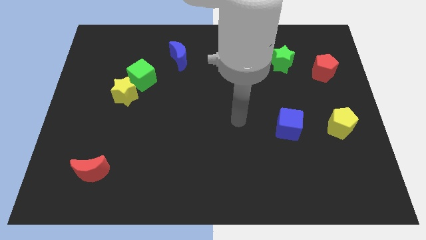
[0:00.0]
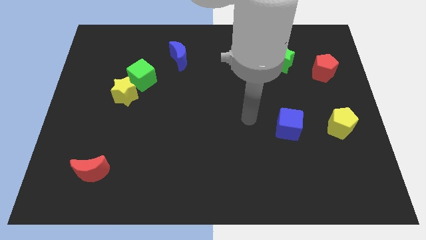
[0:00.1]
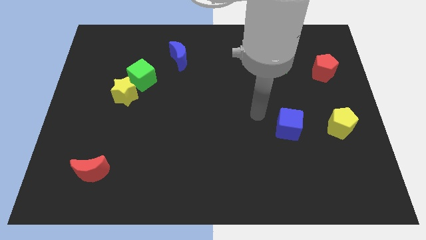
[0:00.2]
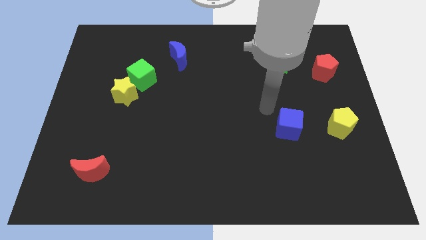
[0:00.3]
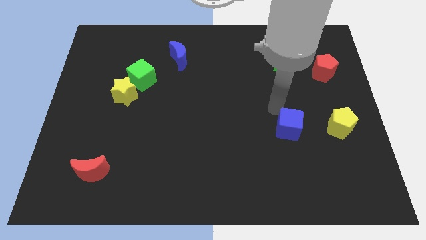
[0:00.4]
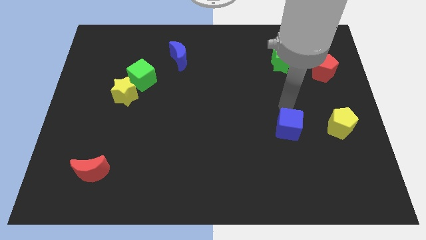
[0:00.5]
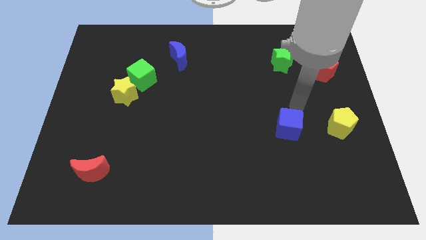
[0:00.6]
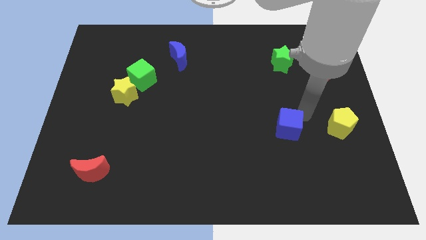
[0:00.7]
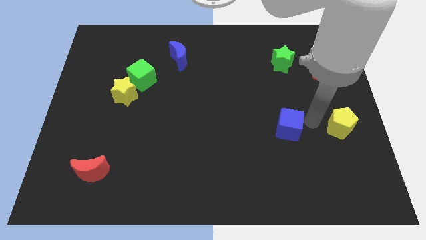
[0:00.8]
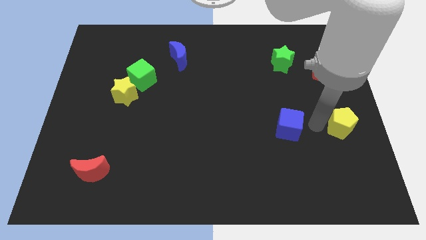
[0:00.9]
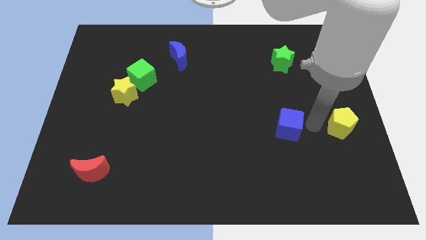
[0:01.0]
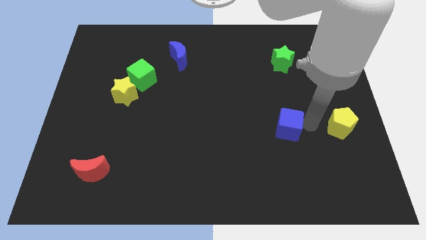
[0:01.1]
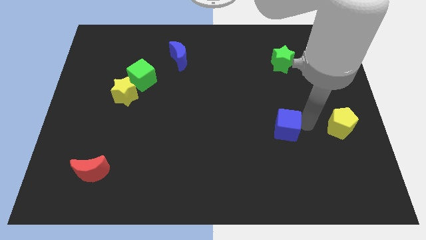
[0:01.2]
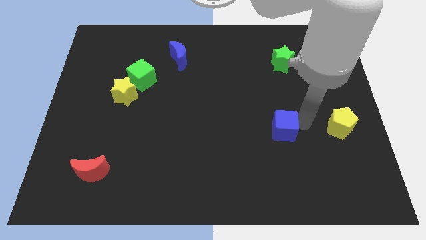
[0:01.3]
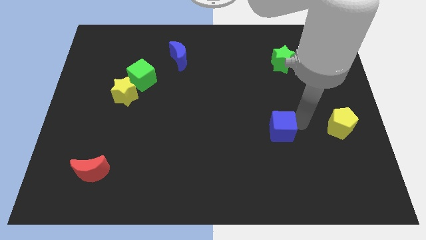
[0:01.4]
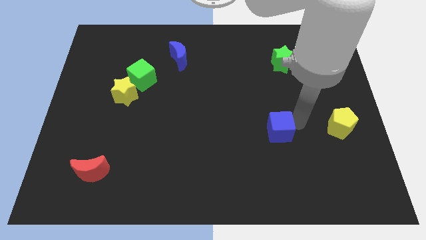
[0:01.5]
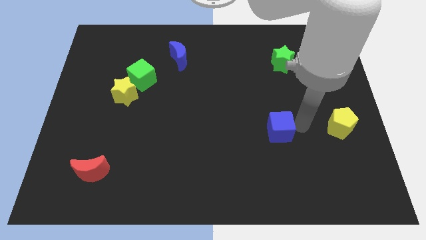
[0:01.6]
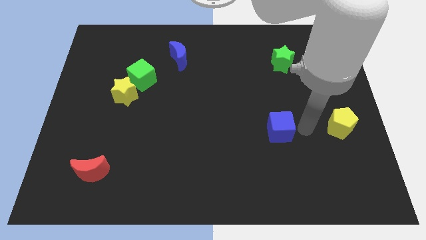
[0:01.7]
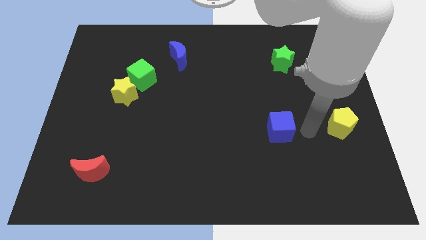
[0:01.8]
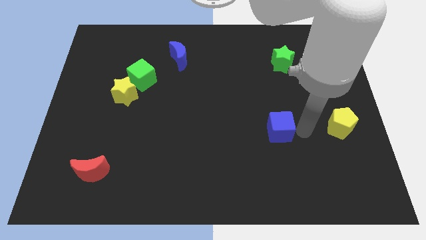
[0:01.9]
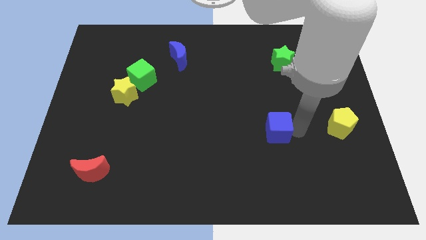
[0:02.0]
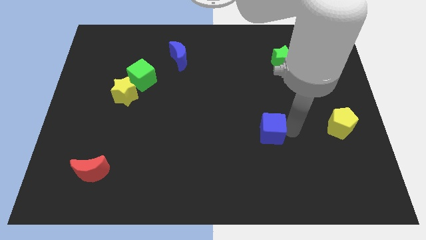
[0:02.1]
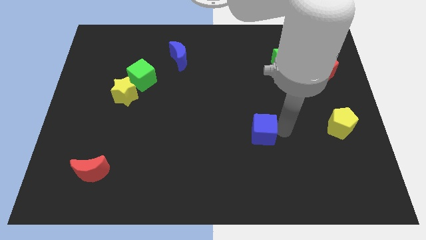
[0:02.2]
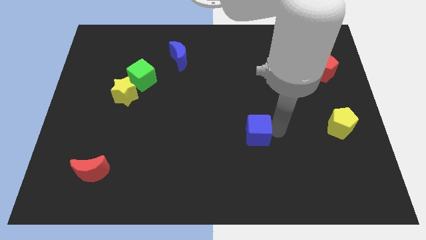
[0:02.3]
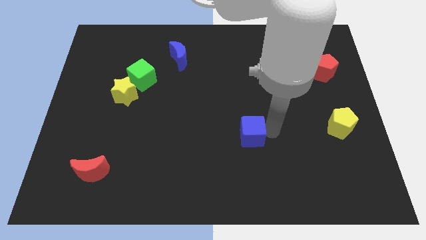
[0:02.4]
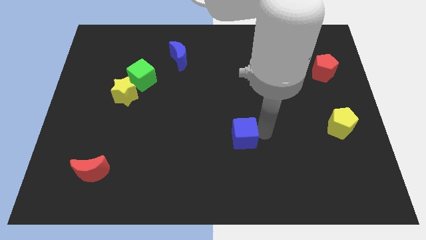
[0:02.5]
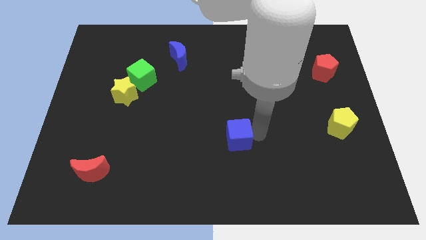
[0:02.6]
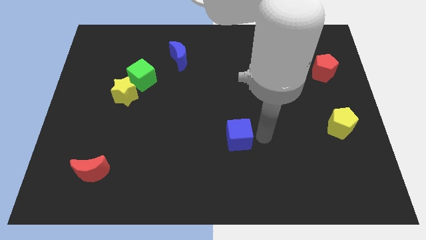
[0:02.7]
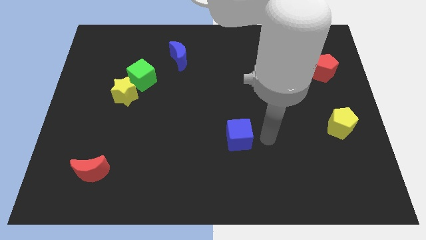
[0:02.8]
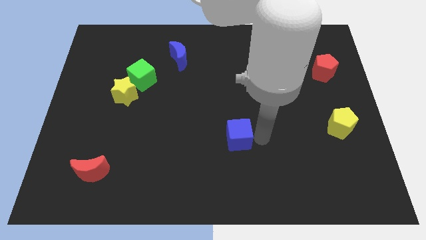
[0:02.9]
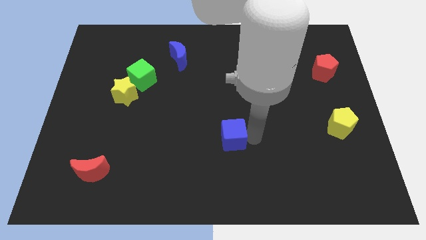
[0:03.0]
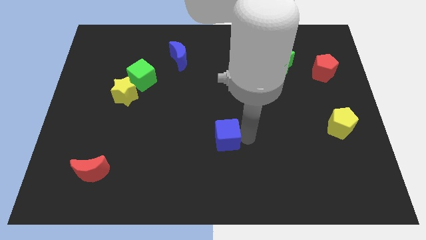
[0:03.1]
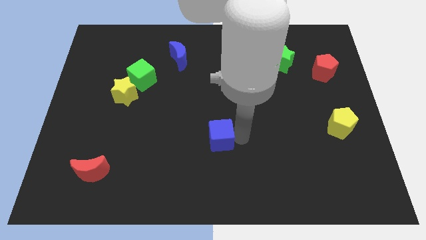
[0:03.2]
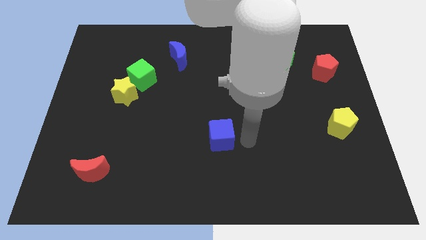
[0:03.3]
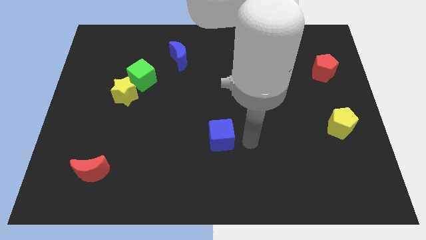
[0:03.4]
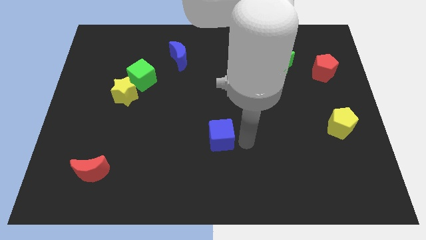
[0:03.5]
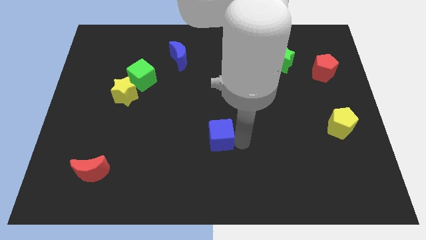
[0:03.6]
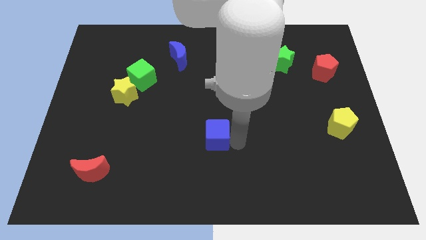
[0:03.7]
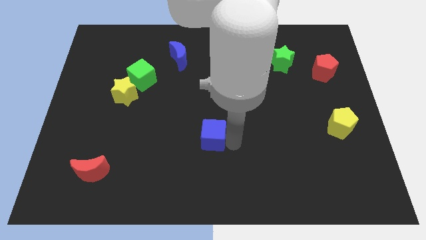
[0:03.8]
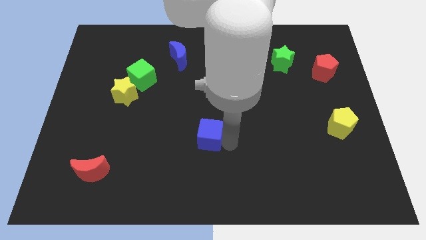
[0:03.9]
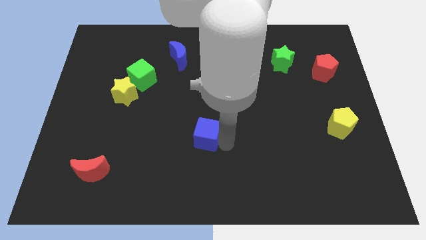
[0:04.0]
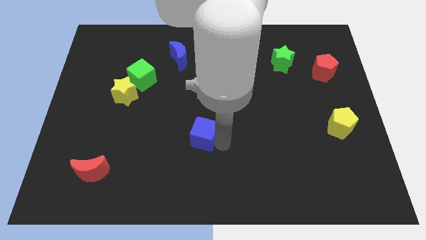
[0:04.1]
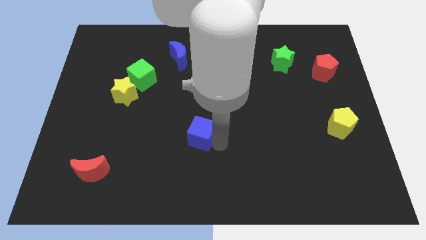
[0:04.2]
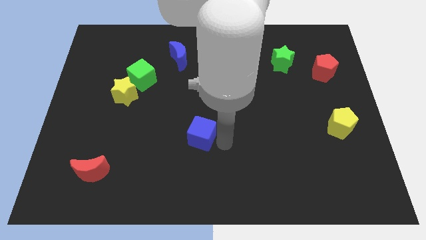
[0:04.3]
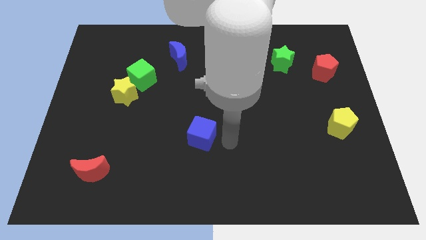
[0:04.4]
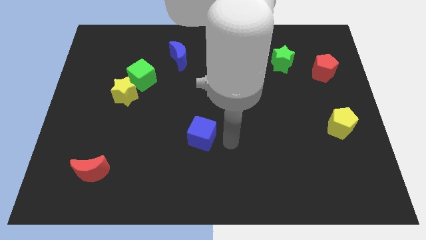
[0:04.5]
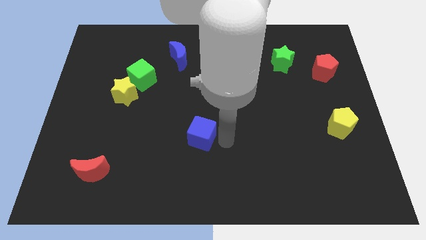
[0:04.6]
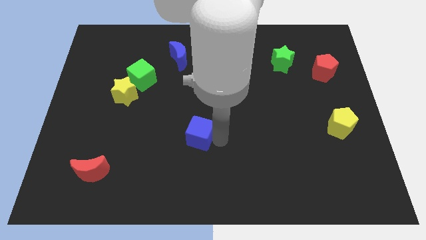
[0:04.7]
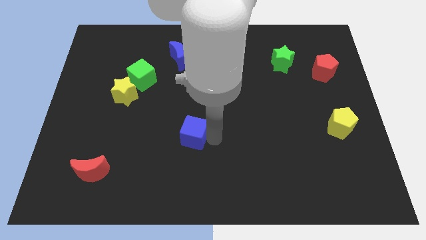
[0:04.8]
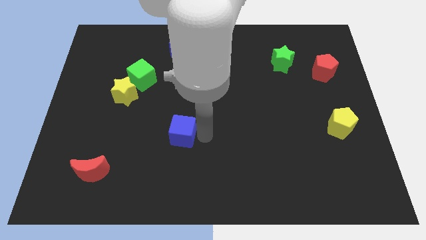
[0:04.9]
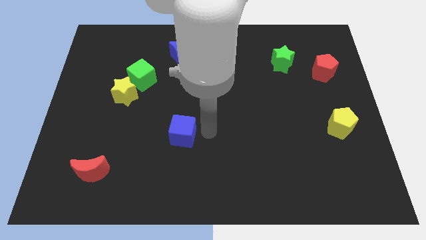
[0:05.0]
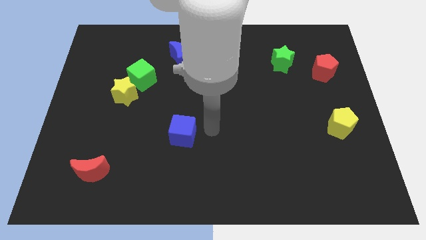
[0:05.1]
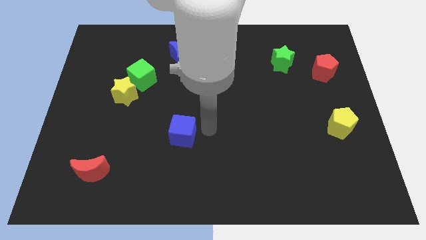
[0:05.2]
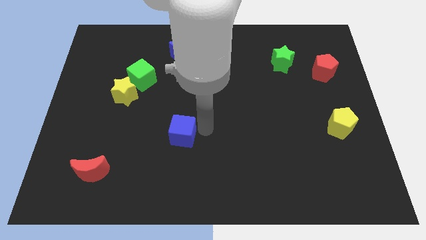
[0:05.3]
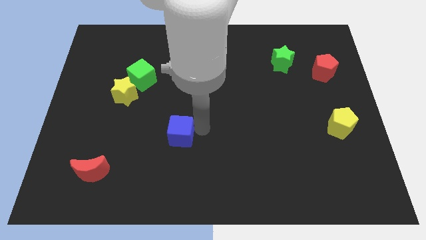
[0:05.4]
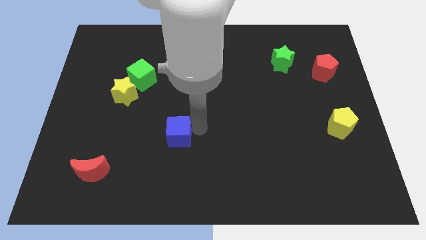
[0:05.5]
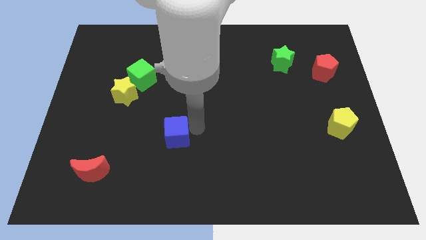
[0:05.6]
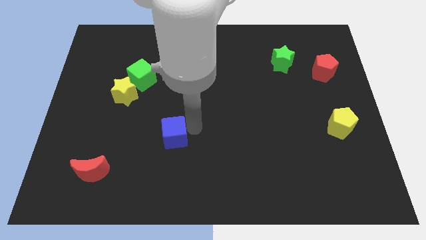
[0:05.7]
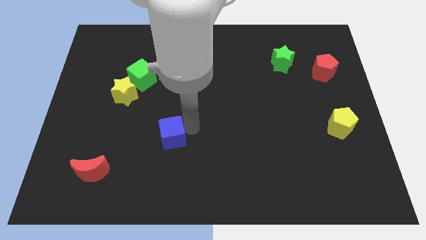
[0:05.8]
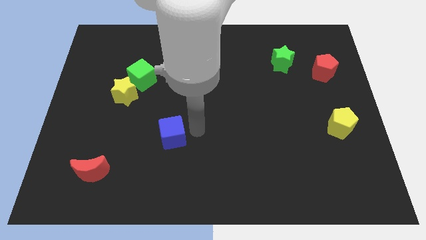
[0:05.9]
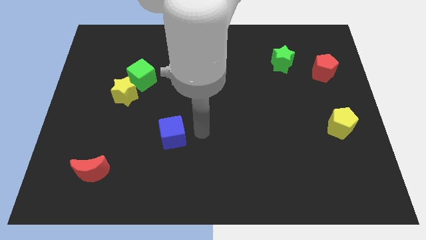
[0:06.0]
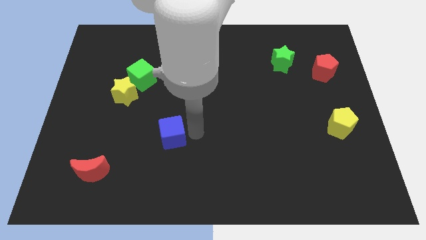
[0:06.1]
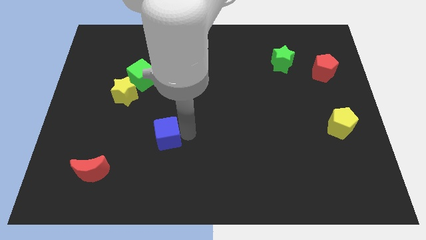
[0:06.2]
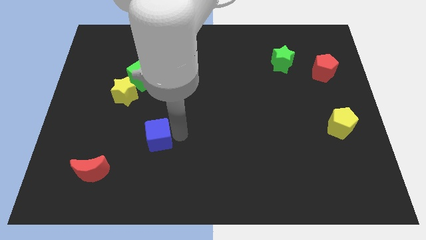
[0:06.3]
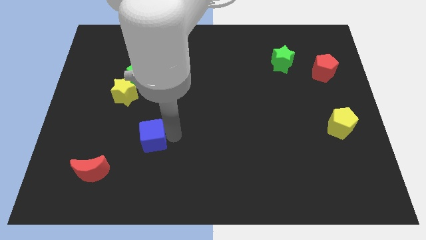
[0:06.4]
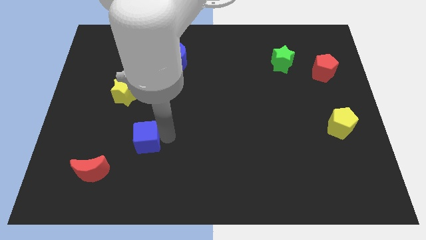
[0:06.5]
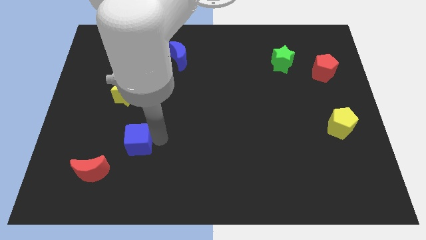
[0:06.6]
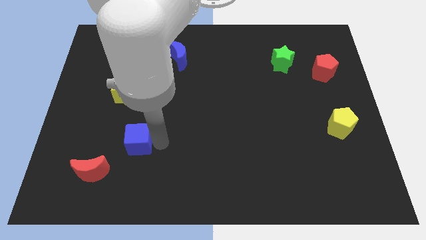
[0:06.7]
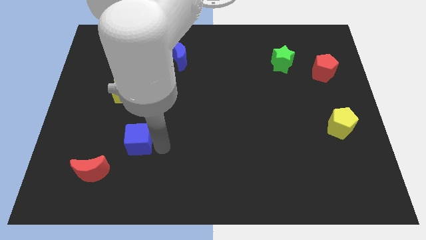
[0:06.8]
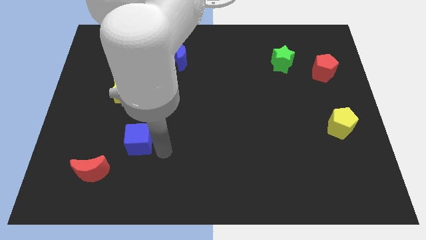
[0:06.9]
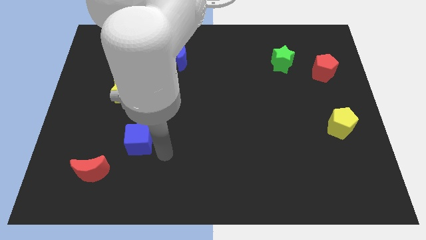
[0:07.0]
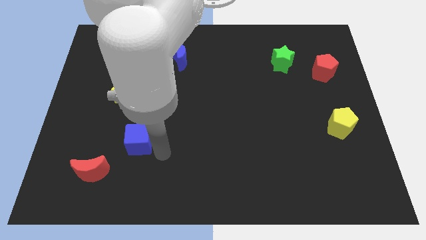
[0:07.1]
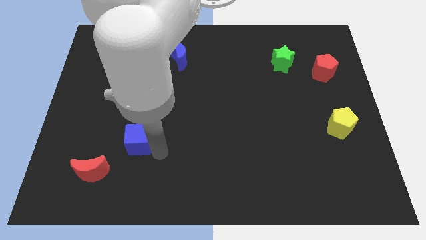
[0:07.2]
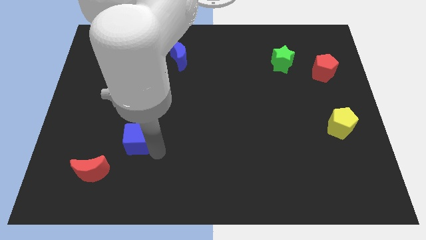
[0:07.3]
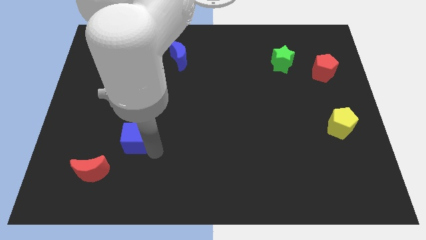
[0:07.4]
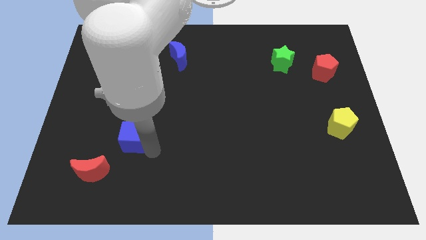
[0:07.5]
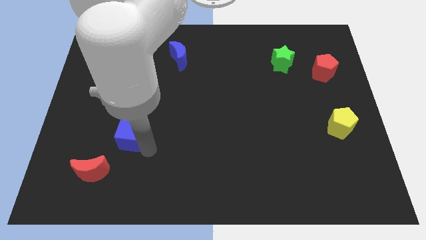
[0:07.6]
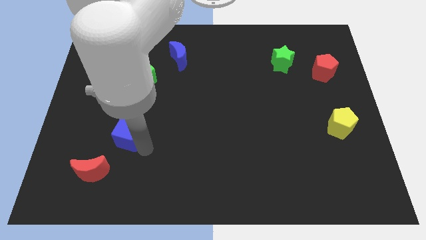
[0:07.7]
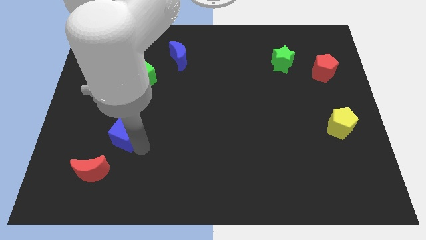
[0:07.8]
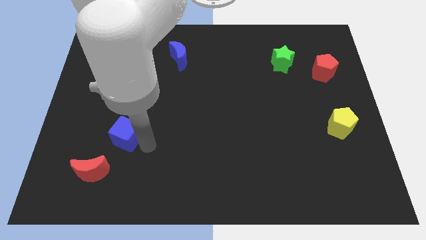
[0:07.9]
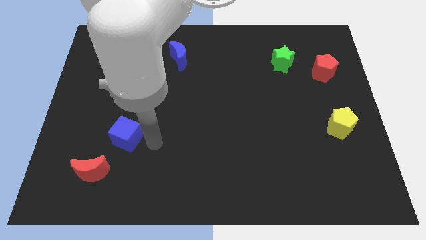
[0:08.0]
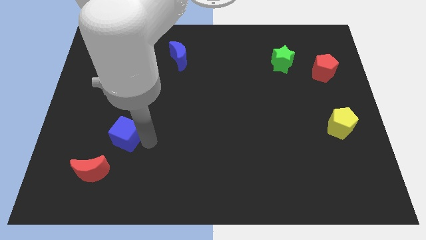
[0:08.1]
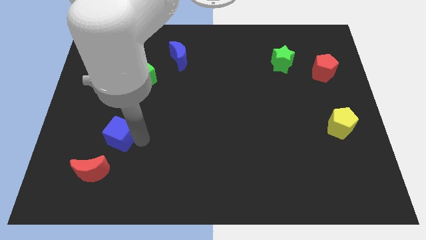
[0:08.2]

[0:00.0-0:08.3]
slide the blue cube to the top of the red moon
